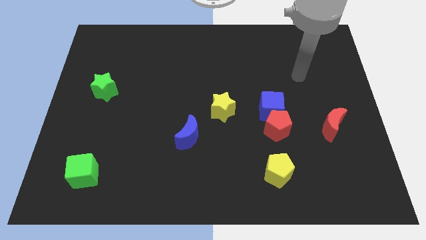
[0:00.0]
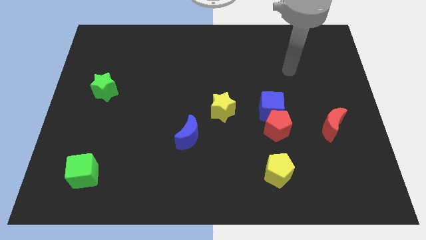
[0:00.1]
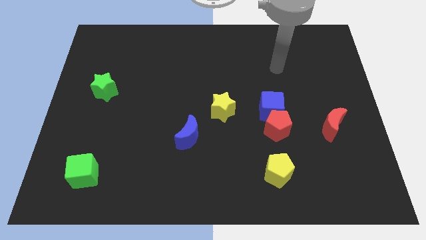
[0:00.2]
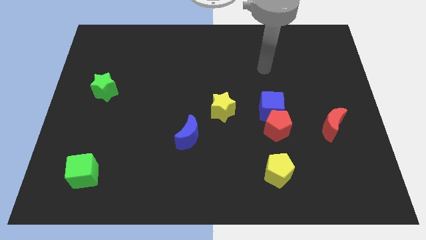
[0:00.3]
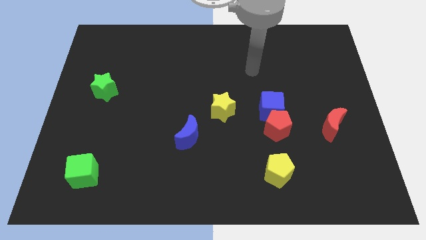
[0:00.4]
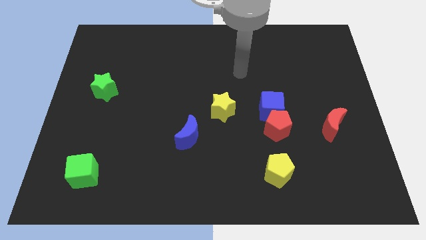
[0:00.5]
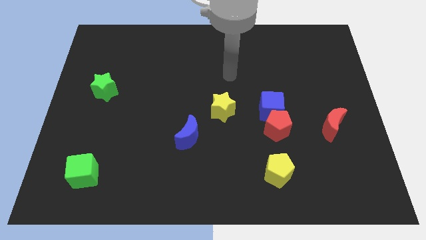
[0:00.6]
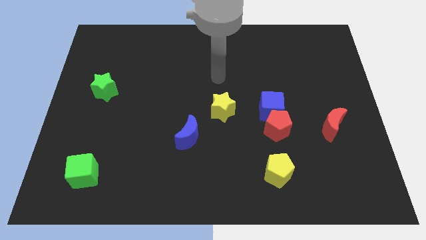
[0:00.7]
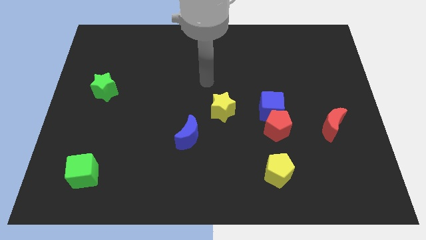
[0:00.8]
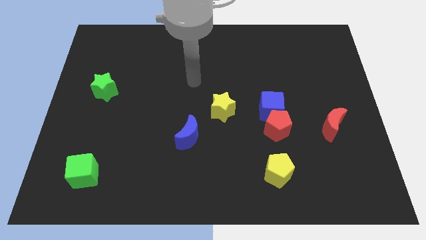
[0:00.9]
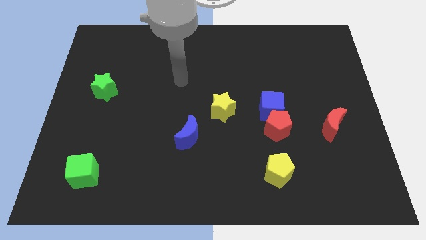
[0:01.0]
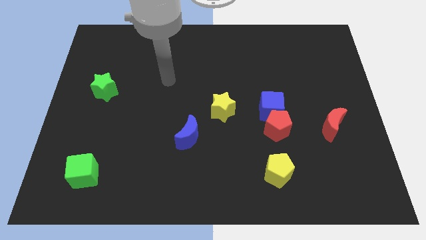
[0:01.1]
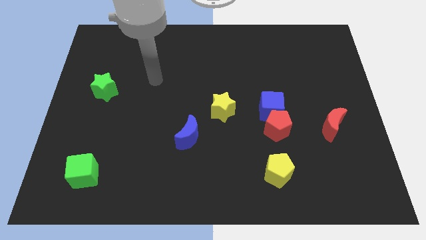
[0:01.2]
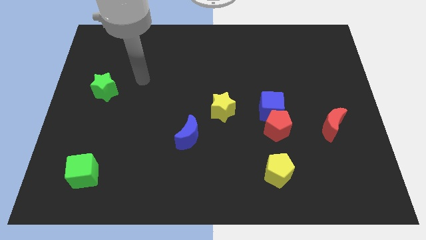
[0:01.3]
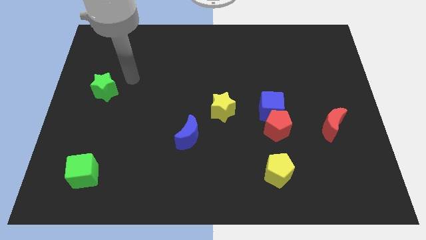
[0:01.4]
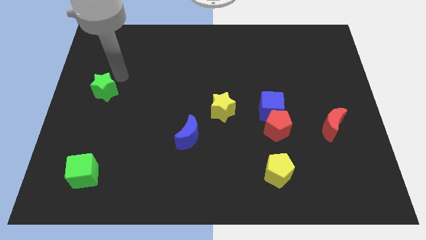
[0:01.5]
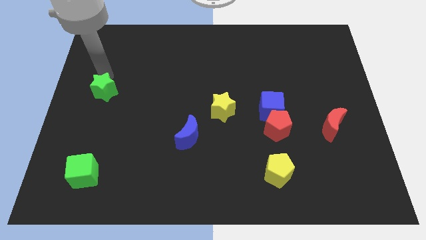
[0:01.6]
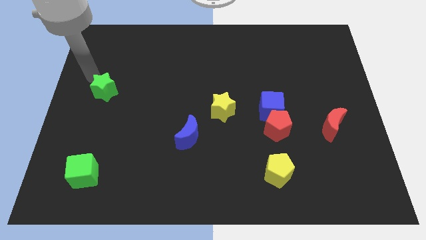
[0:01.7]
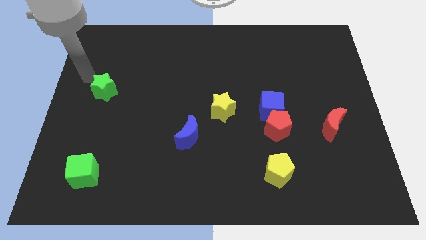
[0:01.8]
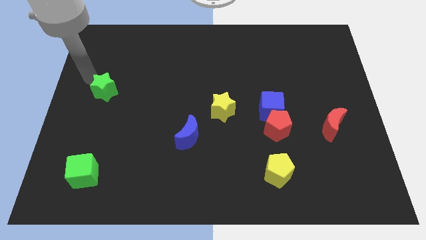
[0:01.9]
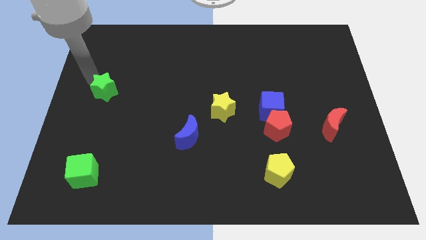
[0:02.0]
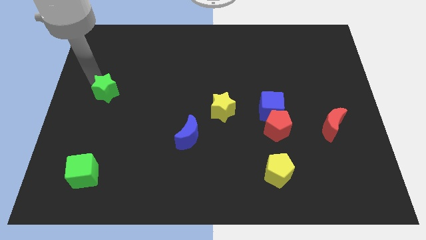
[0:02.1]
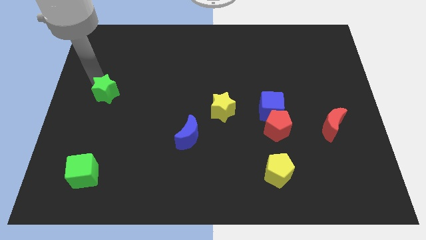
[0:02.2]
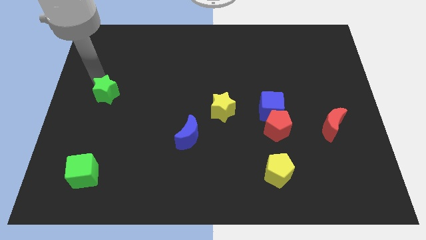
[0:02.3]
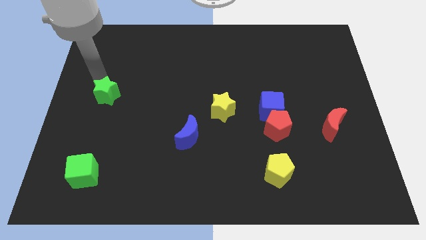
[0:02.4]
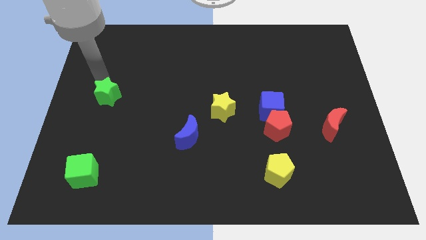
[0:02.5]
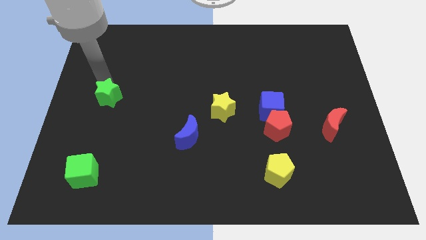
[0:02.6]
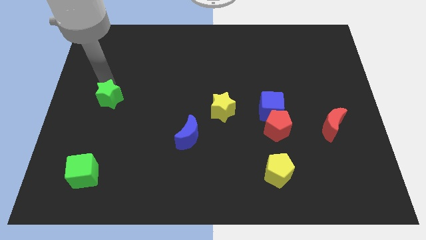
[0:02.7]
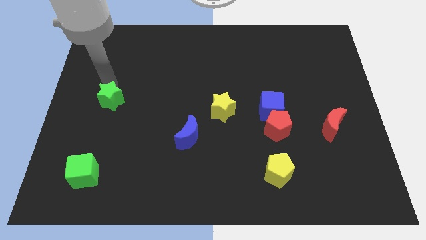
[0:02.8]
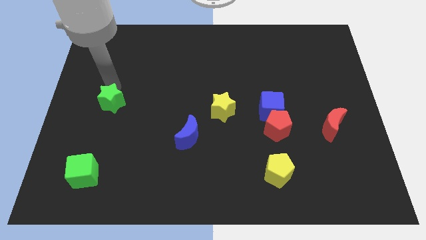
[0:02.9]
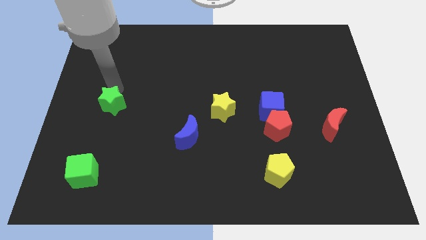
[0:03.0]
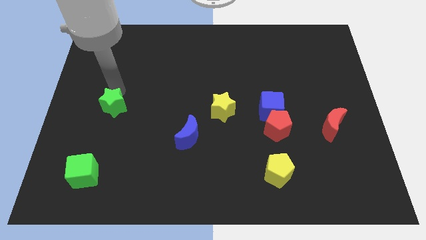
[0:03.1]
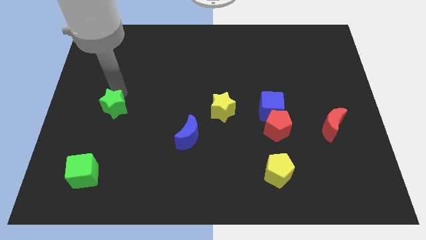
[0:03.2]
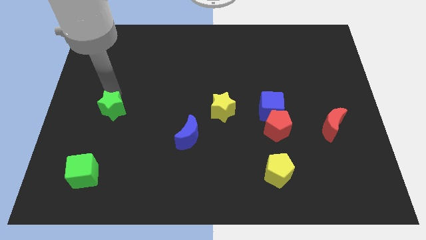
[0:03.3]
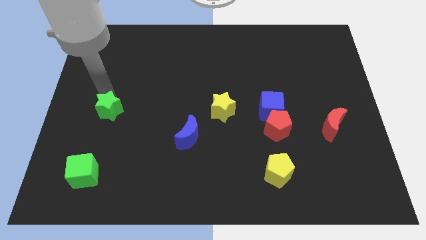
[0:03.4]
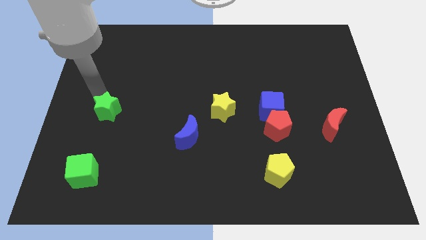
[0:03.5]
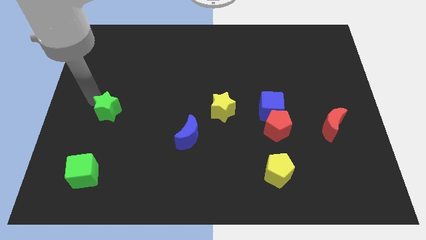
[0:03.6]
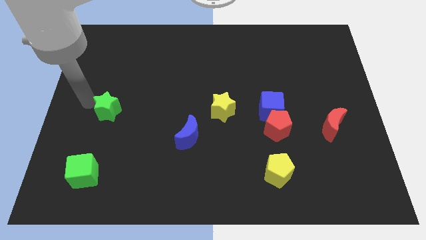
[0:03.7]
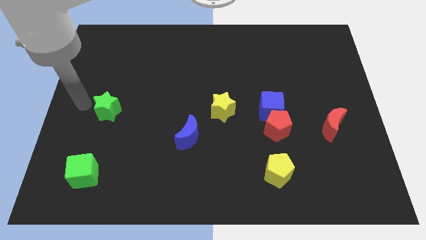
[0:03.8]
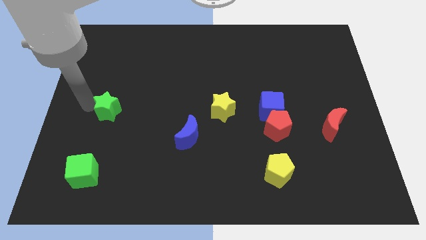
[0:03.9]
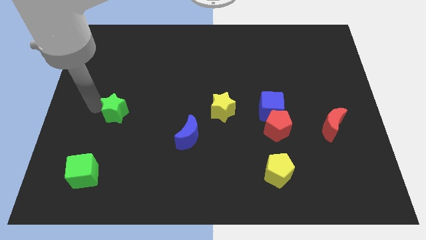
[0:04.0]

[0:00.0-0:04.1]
slightly push the green star downwards and to the right

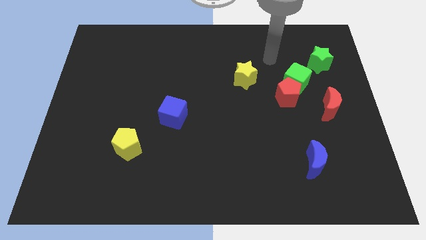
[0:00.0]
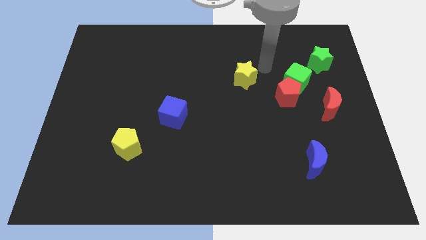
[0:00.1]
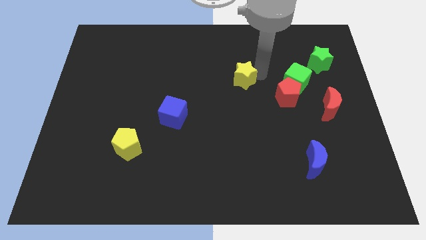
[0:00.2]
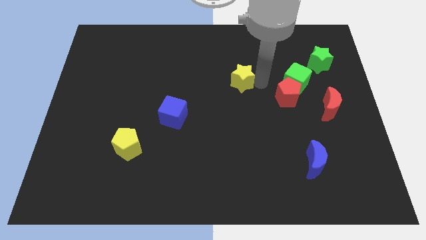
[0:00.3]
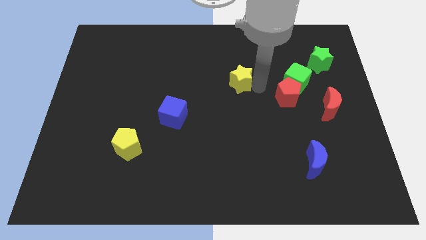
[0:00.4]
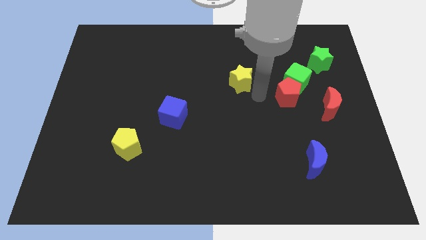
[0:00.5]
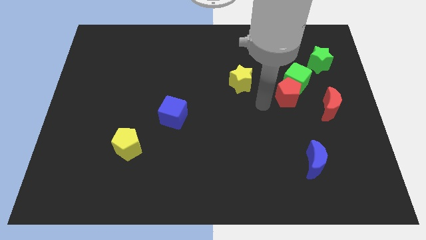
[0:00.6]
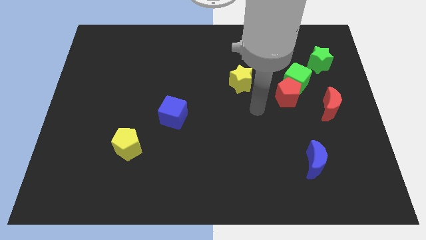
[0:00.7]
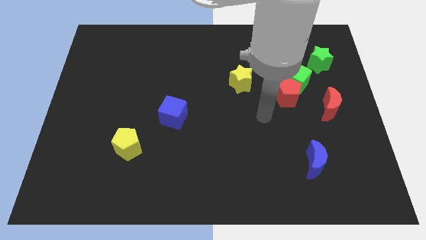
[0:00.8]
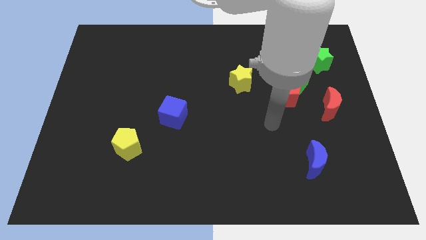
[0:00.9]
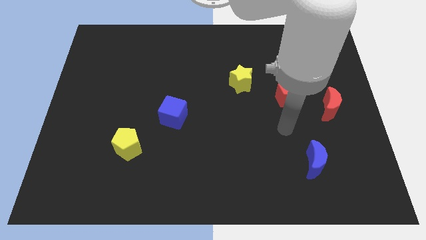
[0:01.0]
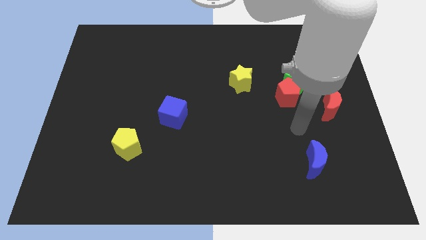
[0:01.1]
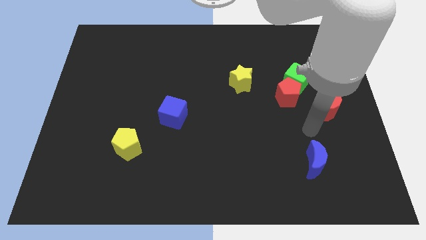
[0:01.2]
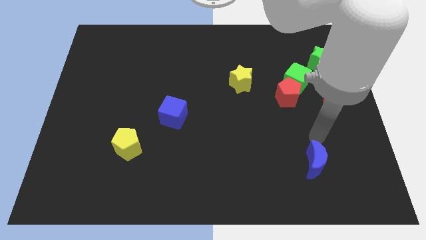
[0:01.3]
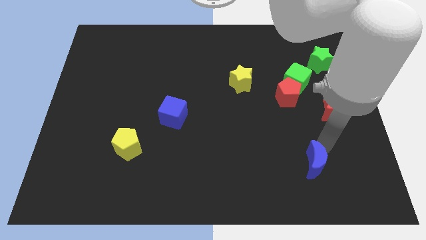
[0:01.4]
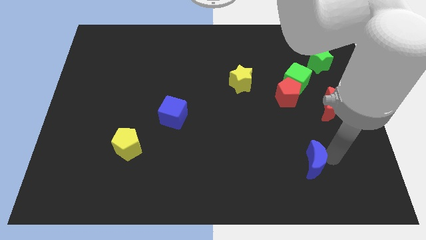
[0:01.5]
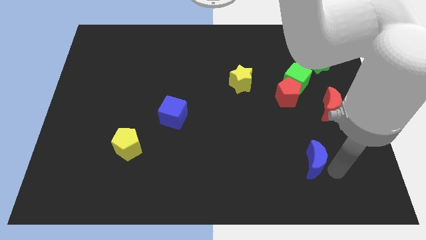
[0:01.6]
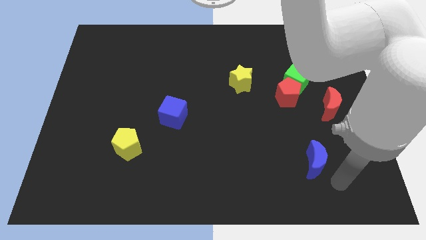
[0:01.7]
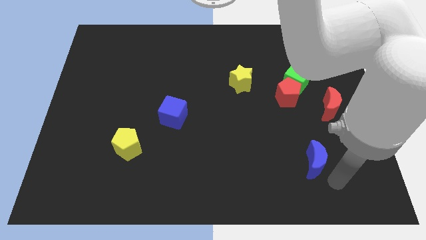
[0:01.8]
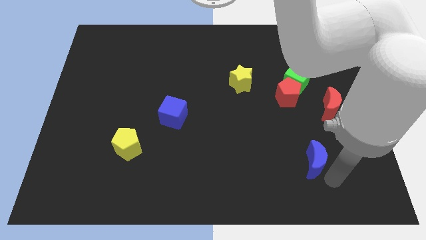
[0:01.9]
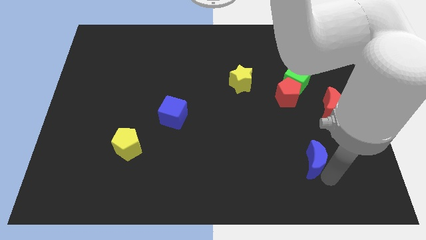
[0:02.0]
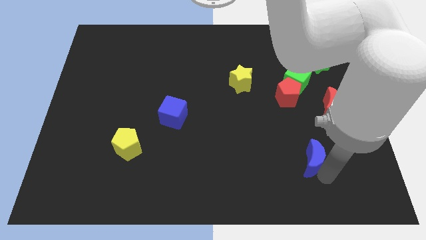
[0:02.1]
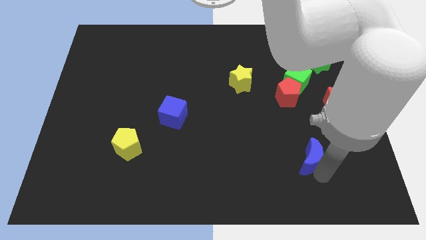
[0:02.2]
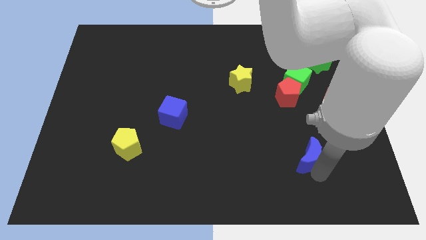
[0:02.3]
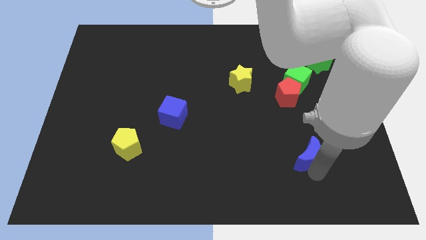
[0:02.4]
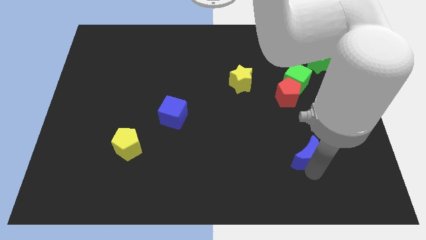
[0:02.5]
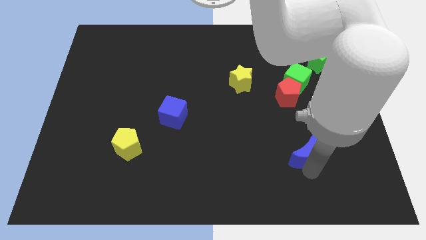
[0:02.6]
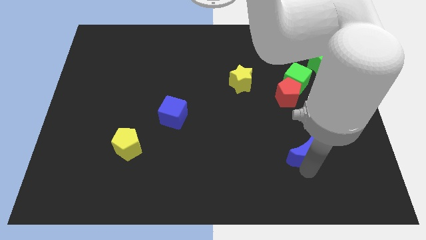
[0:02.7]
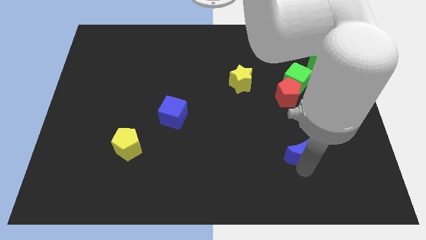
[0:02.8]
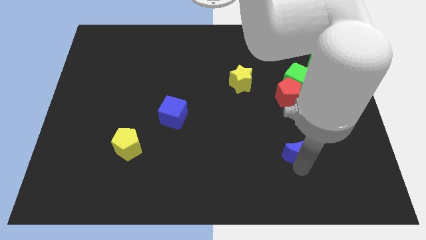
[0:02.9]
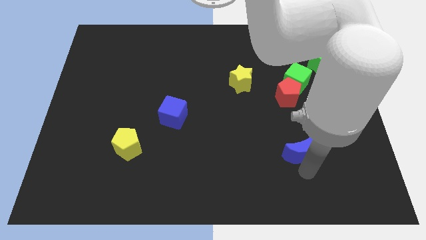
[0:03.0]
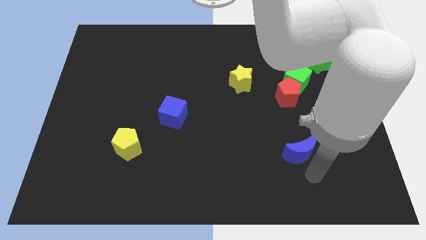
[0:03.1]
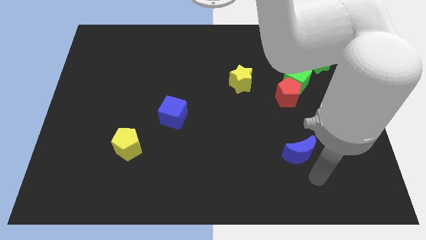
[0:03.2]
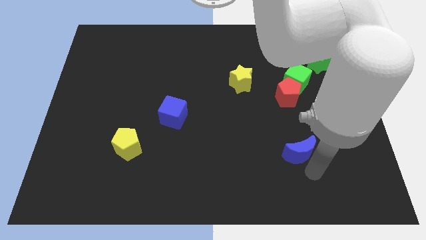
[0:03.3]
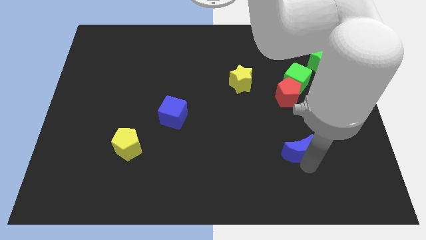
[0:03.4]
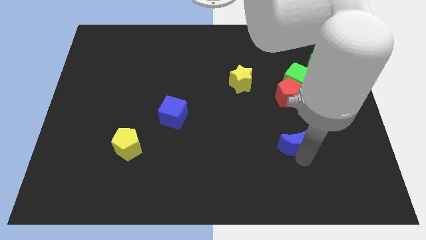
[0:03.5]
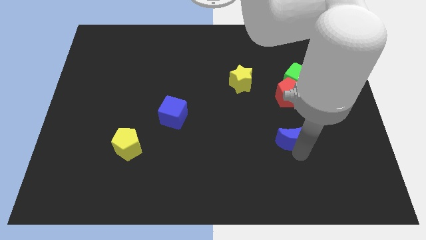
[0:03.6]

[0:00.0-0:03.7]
slide the blue moon upwards and left a little bit

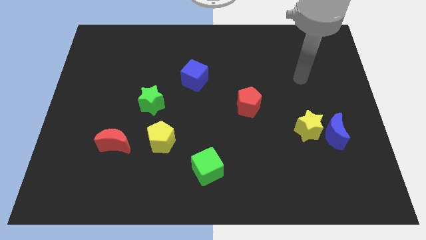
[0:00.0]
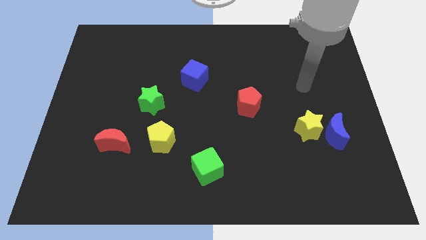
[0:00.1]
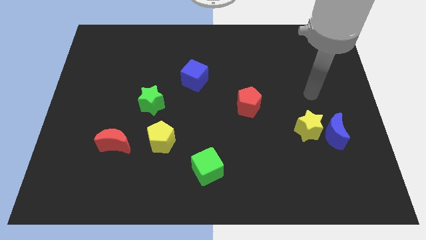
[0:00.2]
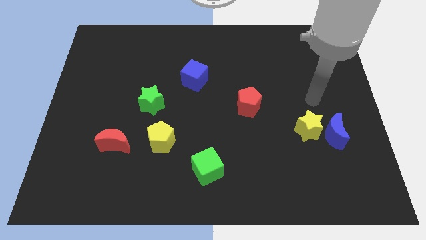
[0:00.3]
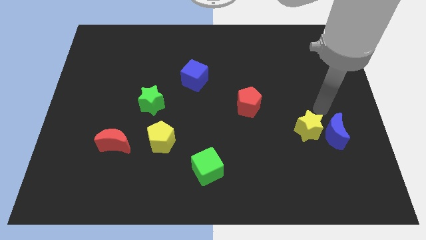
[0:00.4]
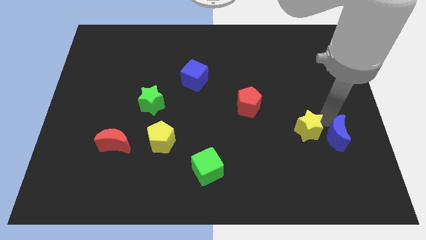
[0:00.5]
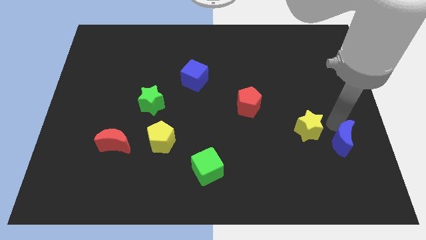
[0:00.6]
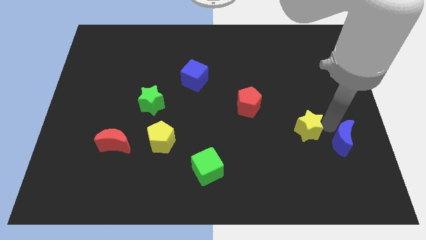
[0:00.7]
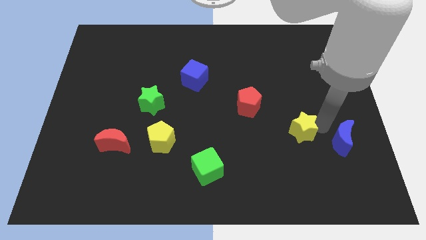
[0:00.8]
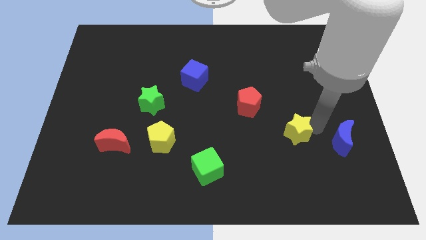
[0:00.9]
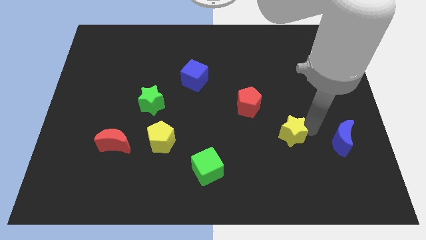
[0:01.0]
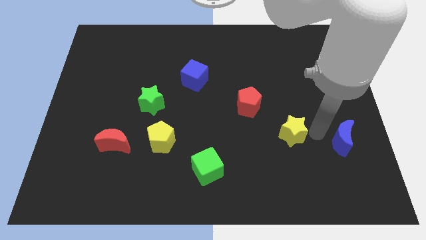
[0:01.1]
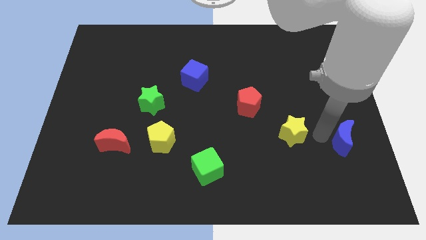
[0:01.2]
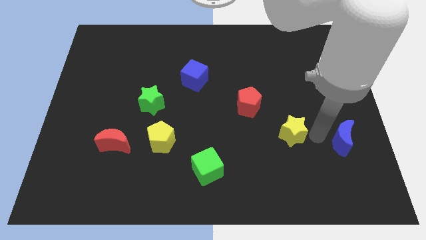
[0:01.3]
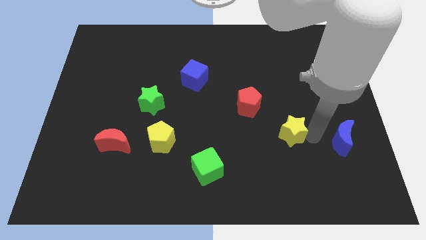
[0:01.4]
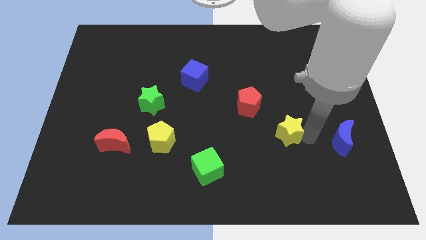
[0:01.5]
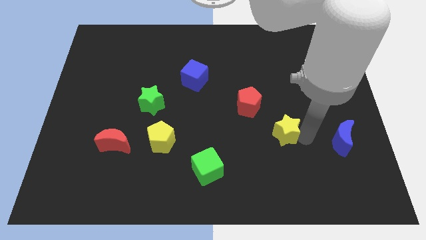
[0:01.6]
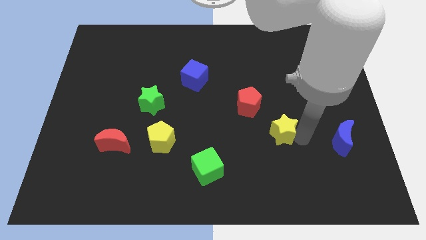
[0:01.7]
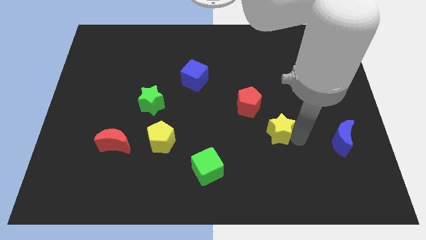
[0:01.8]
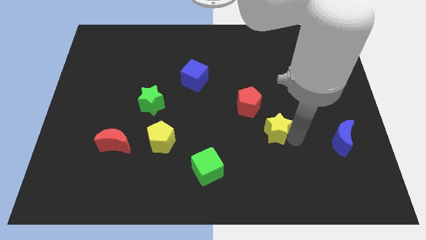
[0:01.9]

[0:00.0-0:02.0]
slide the yellow star left a little bit
